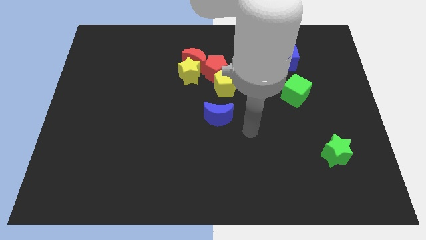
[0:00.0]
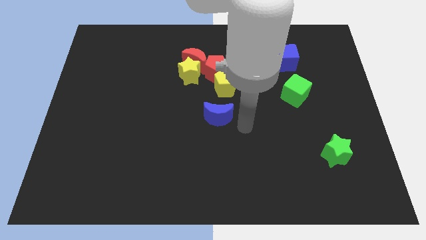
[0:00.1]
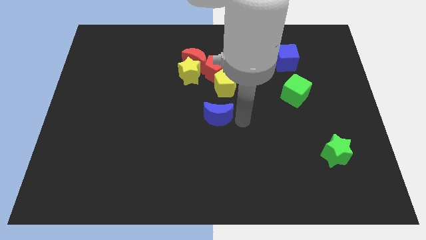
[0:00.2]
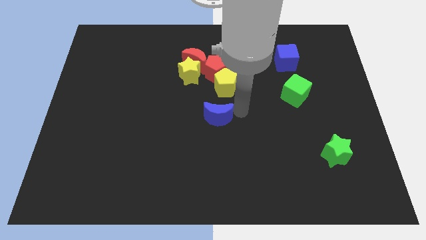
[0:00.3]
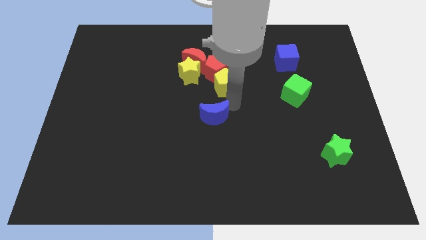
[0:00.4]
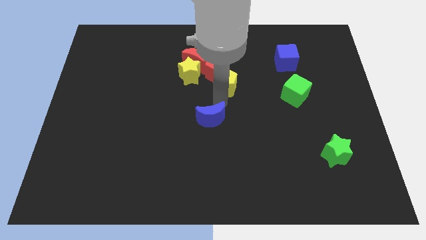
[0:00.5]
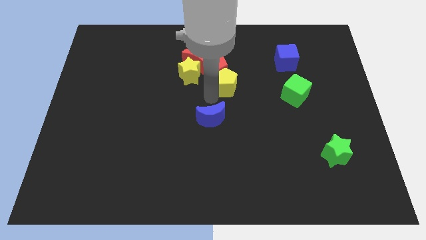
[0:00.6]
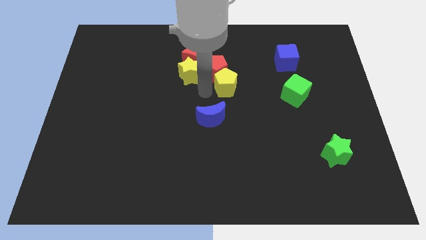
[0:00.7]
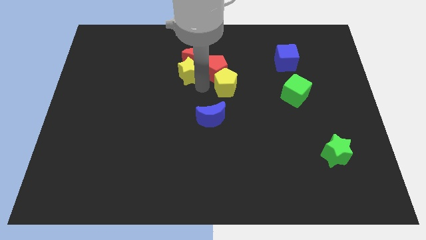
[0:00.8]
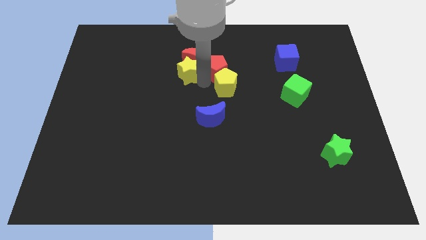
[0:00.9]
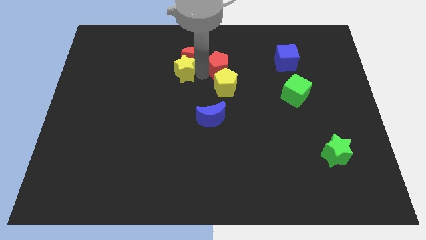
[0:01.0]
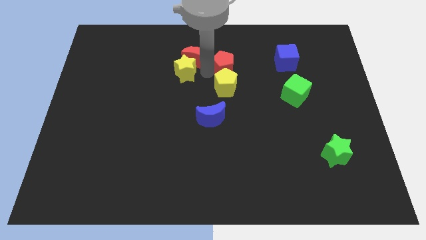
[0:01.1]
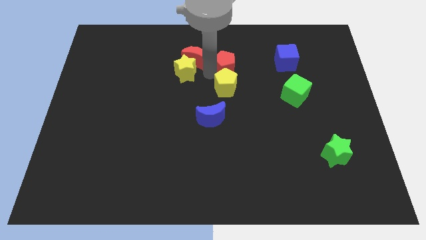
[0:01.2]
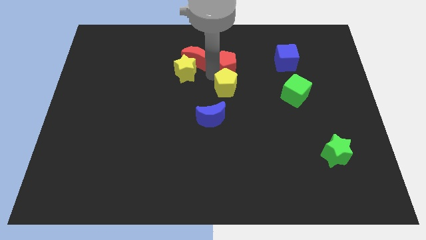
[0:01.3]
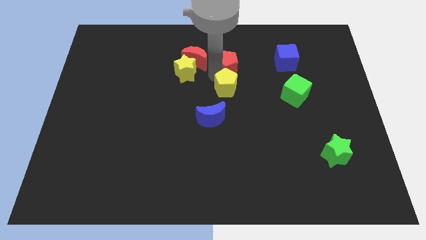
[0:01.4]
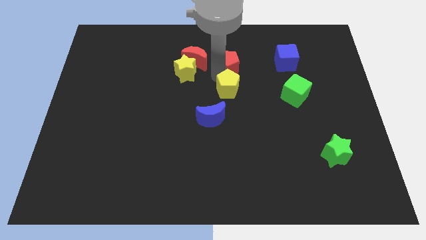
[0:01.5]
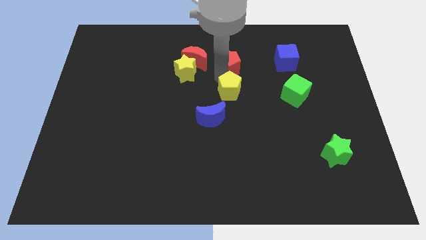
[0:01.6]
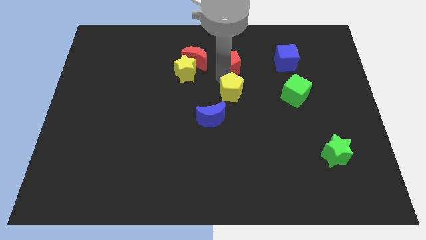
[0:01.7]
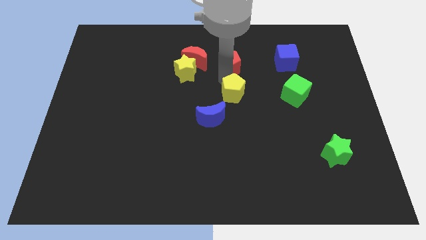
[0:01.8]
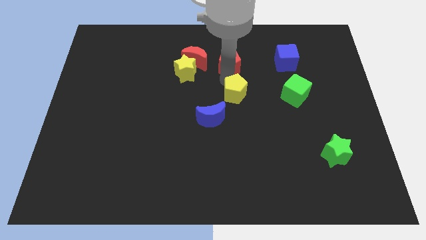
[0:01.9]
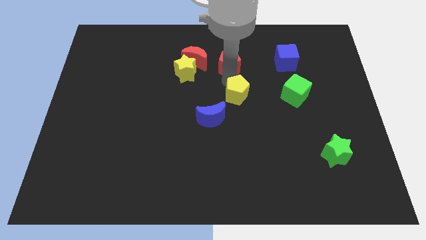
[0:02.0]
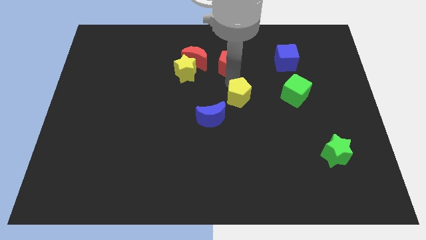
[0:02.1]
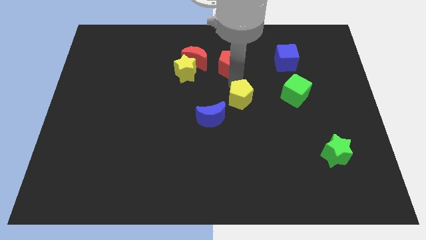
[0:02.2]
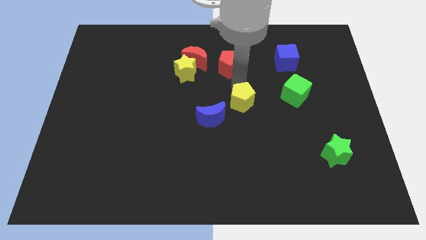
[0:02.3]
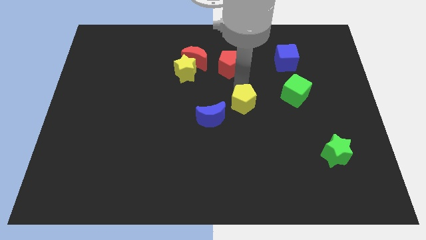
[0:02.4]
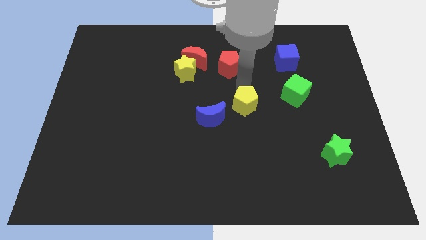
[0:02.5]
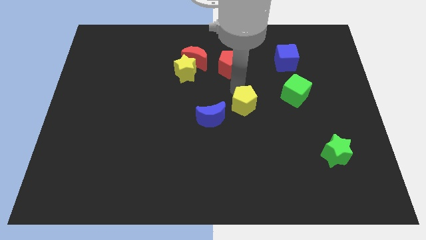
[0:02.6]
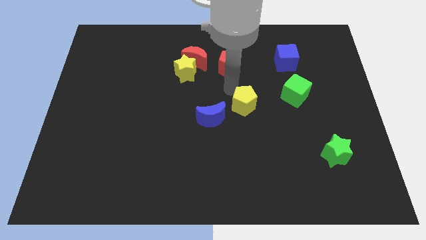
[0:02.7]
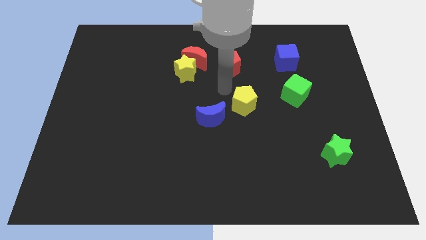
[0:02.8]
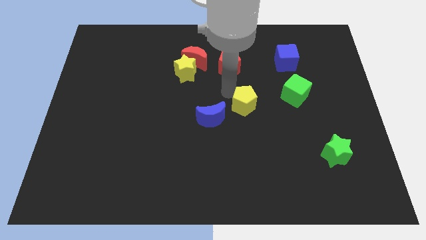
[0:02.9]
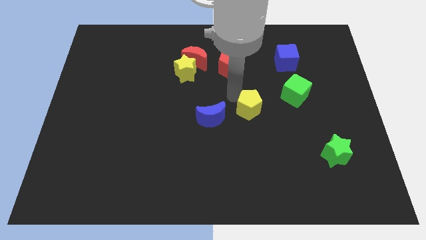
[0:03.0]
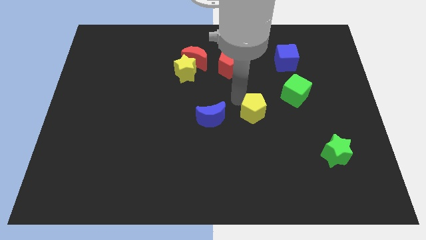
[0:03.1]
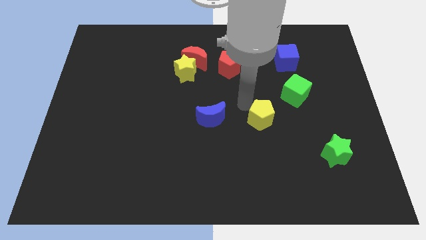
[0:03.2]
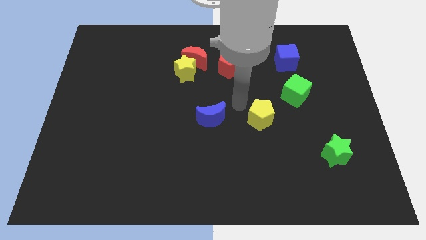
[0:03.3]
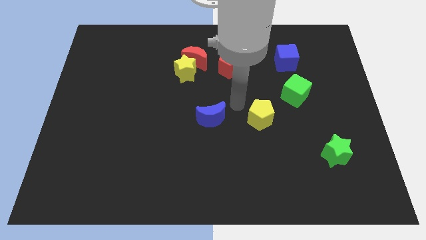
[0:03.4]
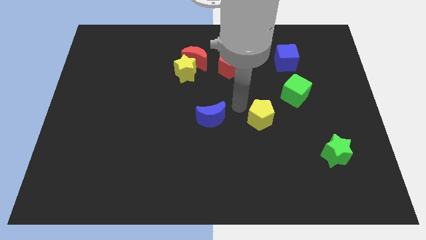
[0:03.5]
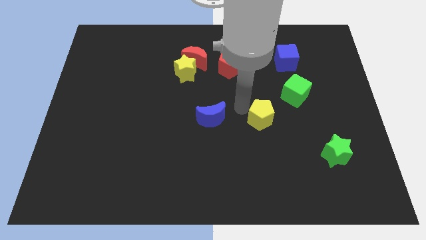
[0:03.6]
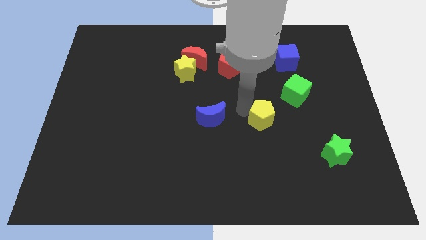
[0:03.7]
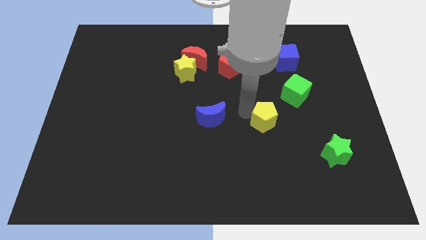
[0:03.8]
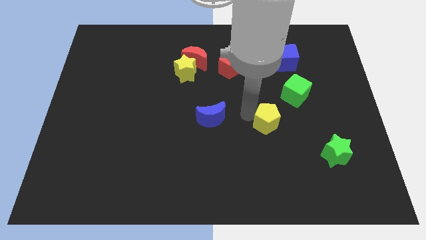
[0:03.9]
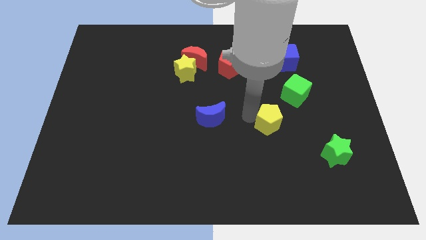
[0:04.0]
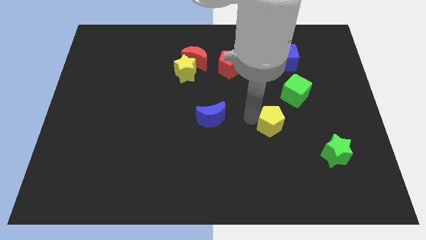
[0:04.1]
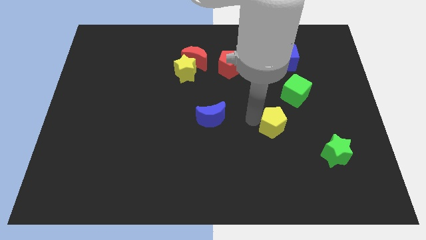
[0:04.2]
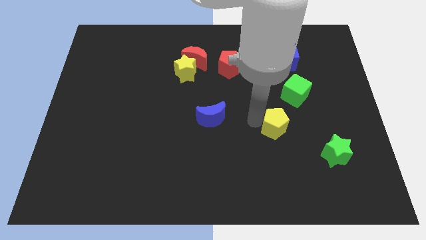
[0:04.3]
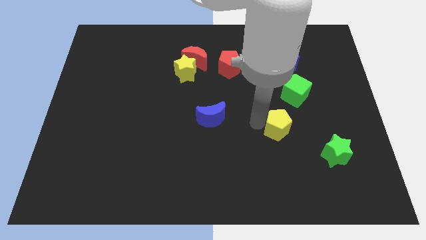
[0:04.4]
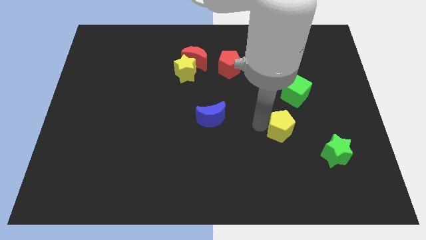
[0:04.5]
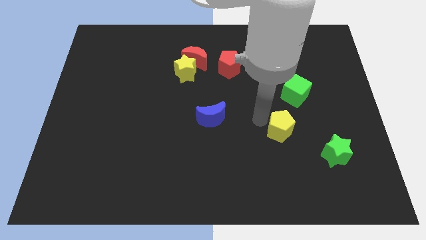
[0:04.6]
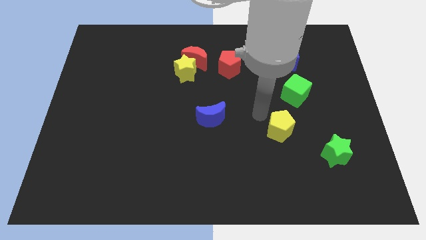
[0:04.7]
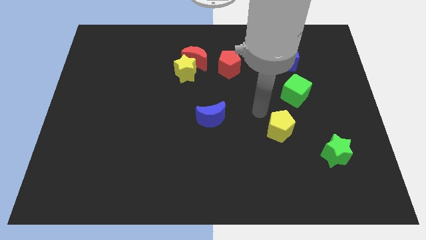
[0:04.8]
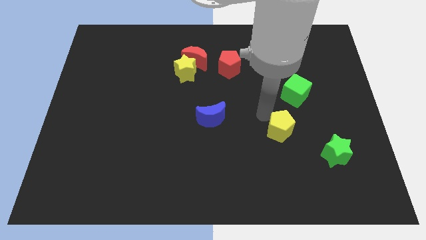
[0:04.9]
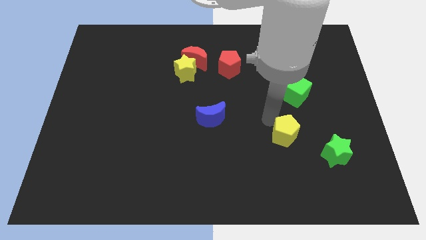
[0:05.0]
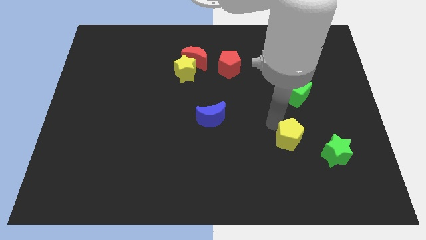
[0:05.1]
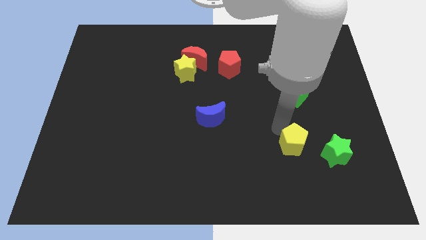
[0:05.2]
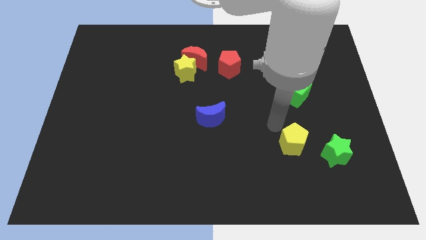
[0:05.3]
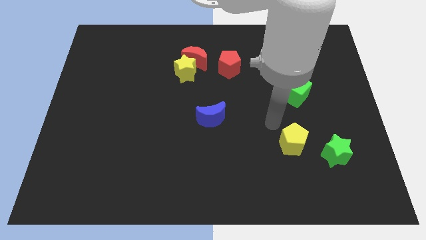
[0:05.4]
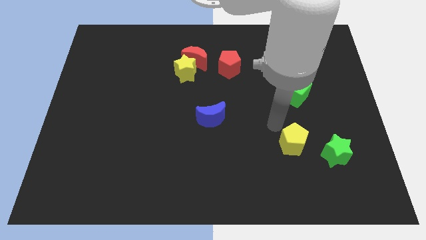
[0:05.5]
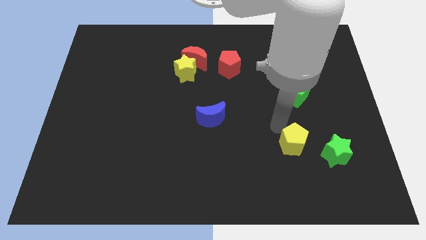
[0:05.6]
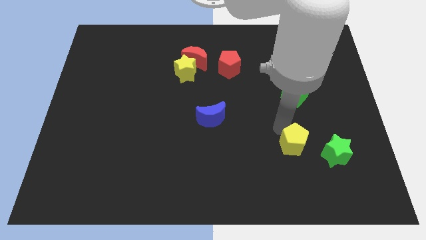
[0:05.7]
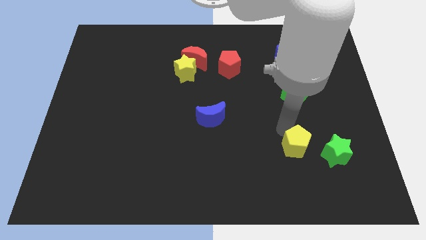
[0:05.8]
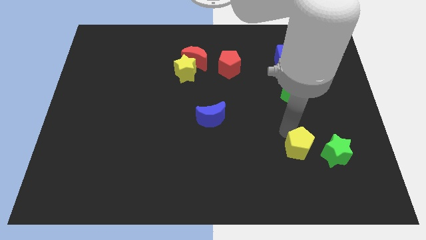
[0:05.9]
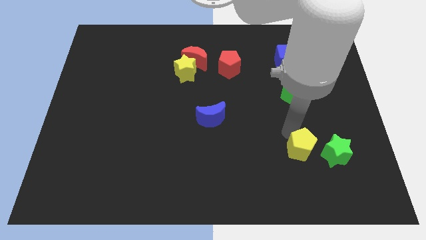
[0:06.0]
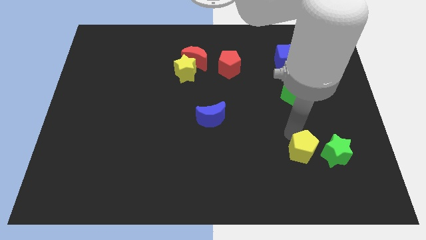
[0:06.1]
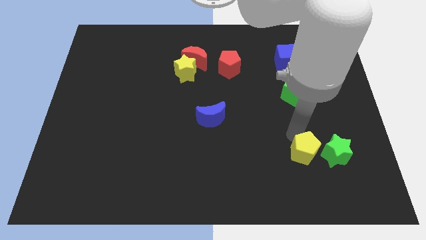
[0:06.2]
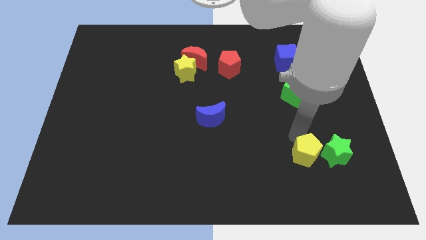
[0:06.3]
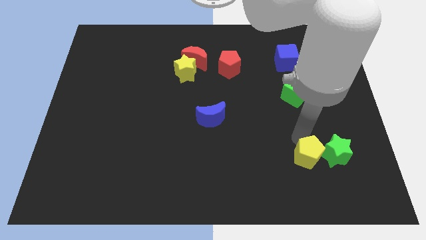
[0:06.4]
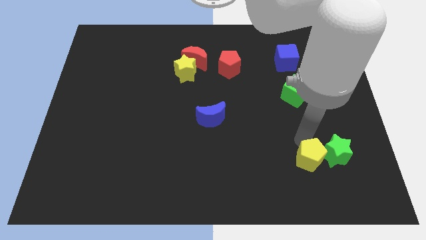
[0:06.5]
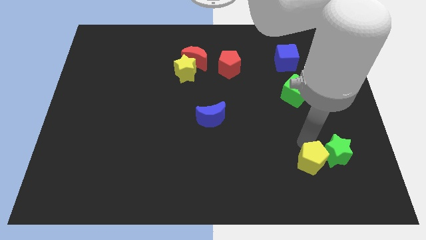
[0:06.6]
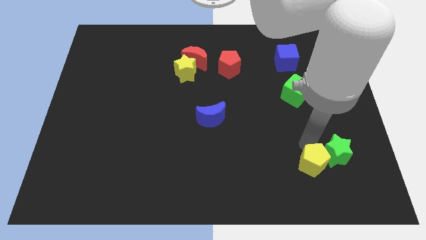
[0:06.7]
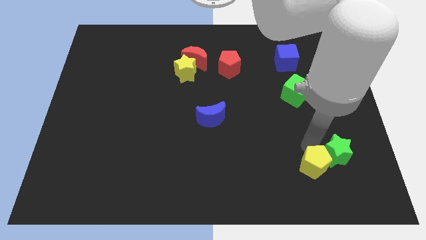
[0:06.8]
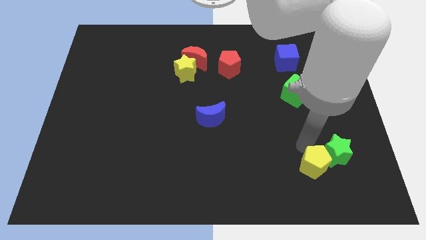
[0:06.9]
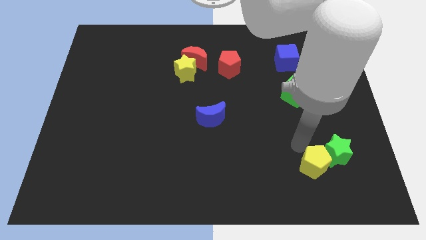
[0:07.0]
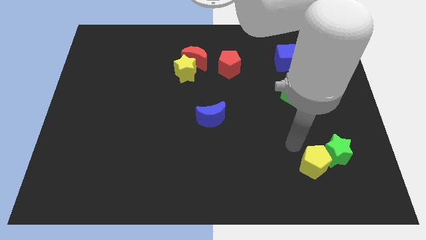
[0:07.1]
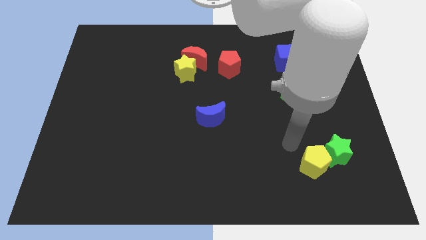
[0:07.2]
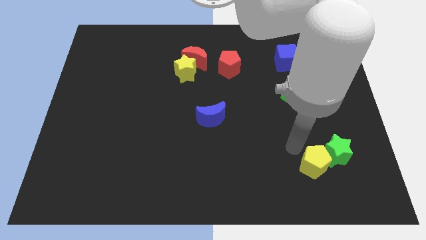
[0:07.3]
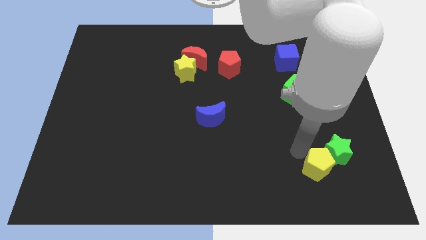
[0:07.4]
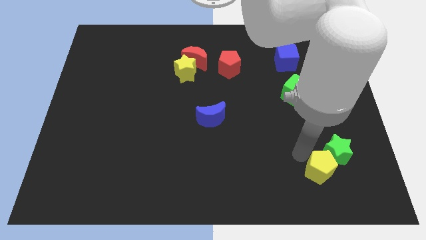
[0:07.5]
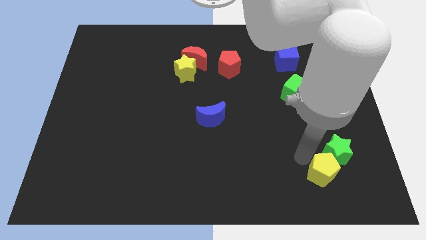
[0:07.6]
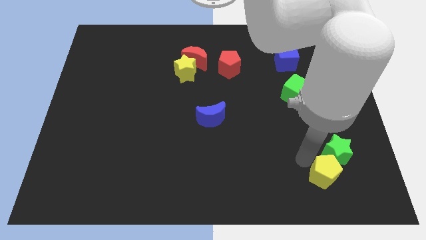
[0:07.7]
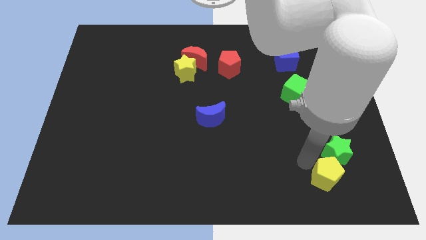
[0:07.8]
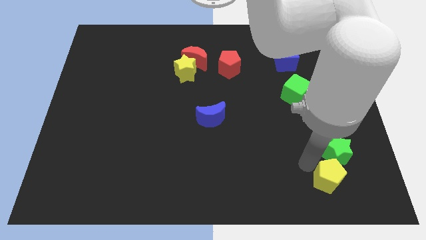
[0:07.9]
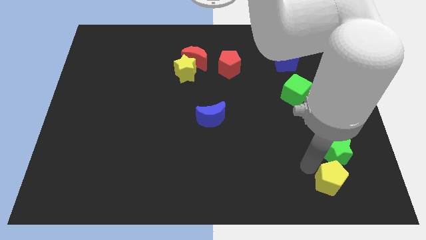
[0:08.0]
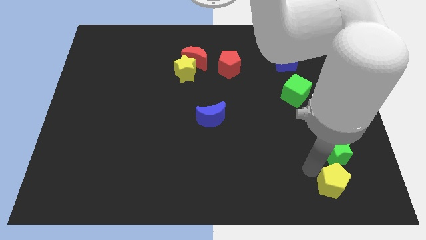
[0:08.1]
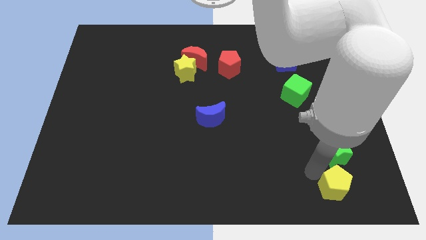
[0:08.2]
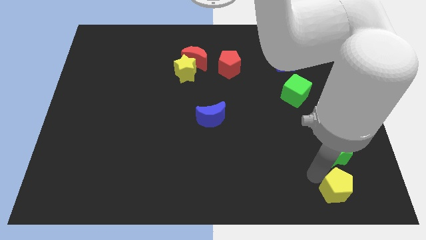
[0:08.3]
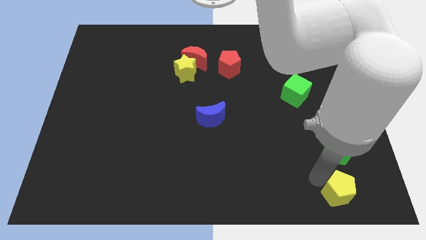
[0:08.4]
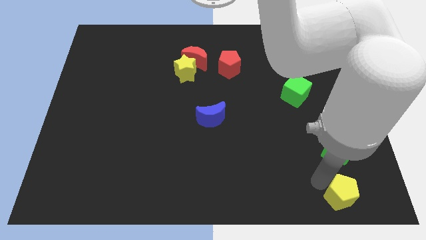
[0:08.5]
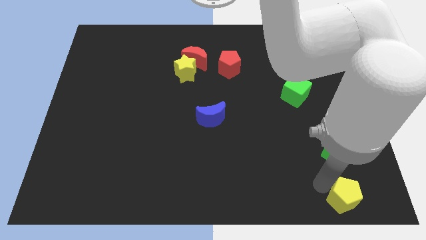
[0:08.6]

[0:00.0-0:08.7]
slide the yellow pentagon to the bottom right of the board
